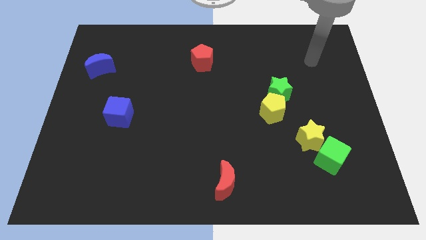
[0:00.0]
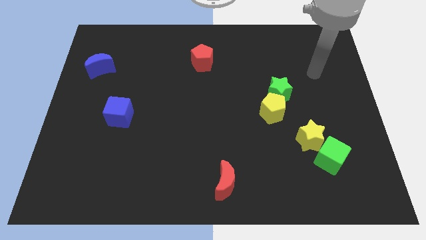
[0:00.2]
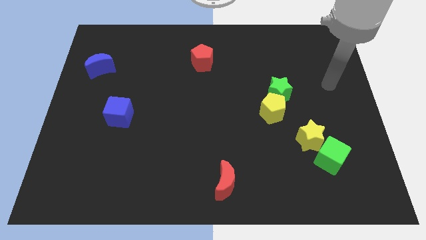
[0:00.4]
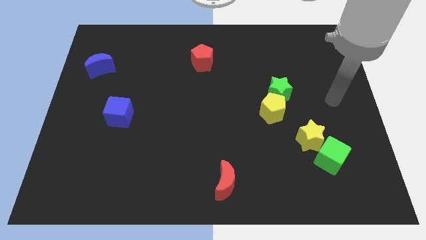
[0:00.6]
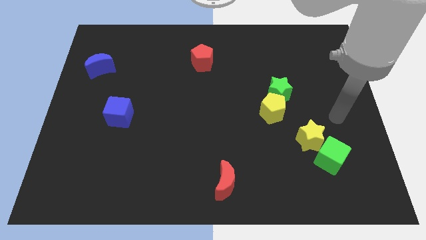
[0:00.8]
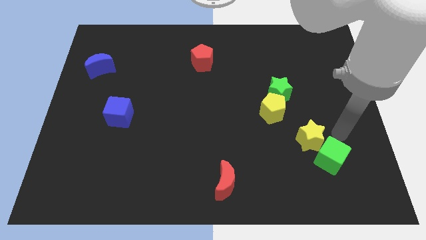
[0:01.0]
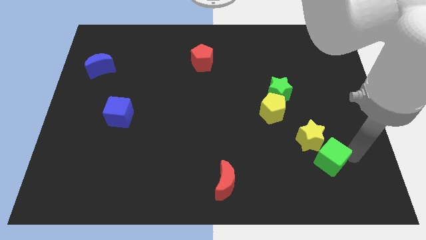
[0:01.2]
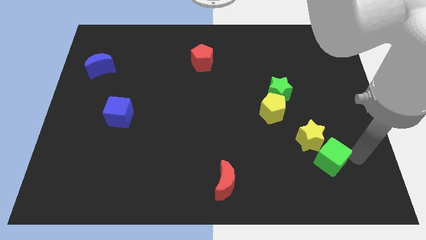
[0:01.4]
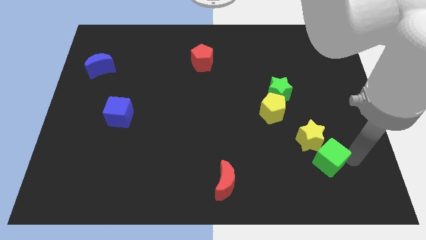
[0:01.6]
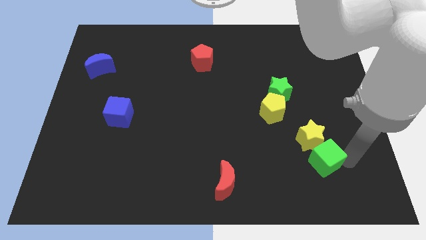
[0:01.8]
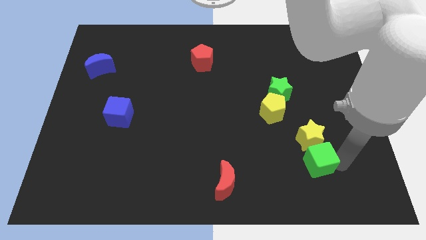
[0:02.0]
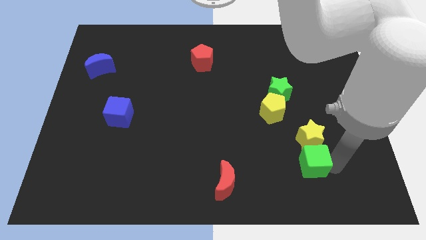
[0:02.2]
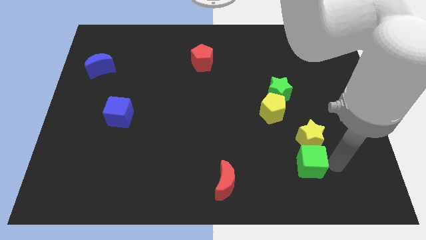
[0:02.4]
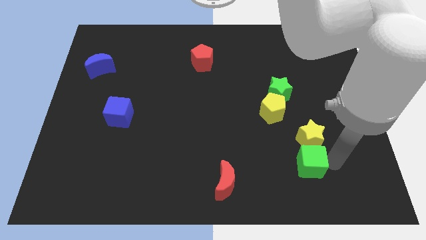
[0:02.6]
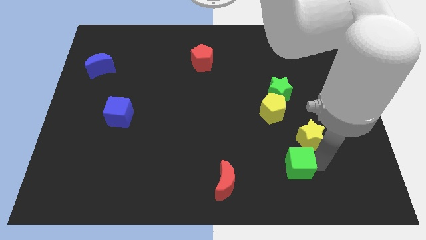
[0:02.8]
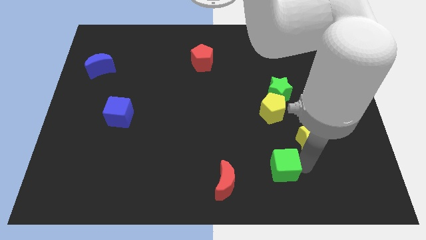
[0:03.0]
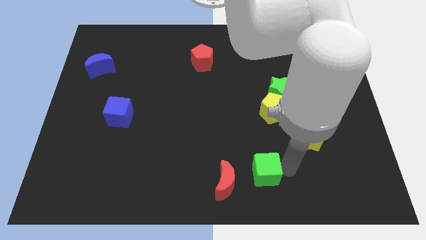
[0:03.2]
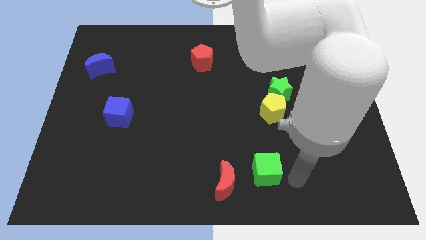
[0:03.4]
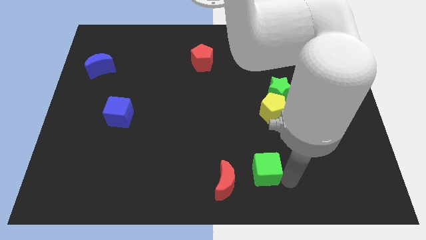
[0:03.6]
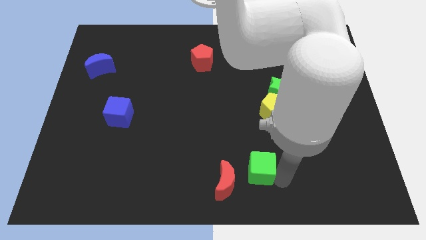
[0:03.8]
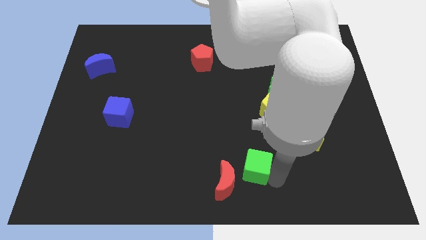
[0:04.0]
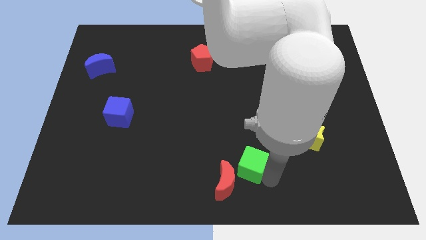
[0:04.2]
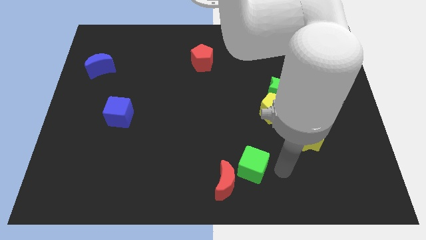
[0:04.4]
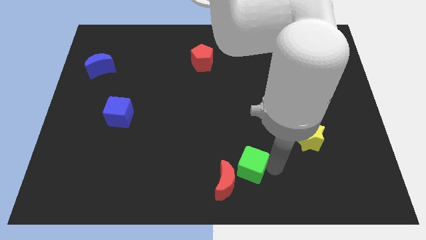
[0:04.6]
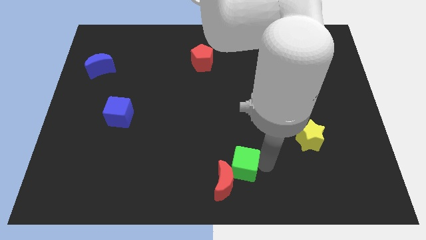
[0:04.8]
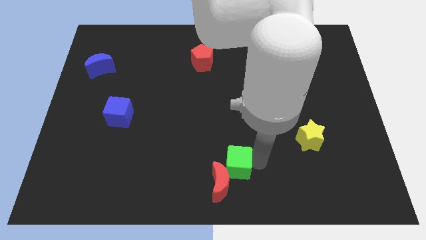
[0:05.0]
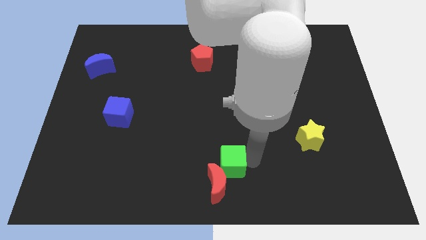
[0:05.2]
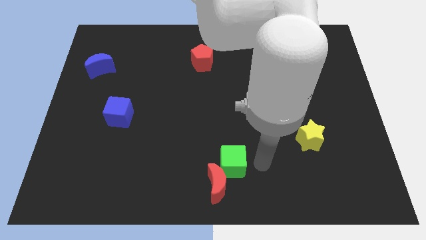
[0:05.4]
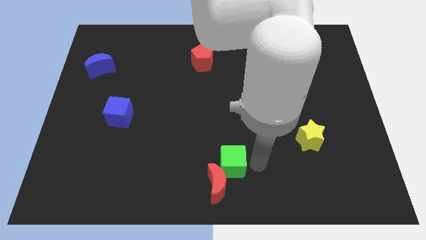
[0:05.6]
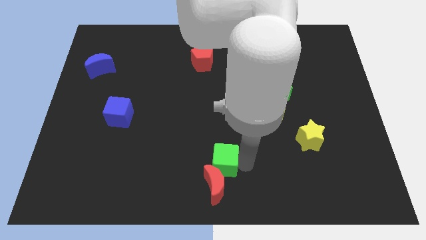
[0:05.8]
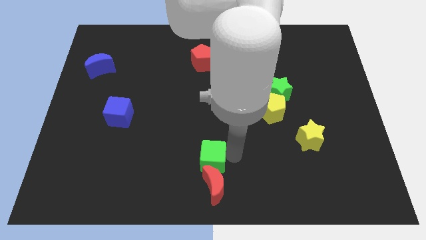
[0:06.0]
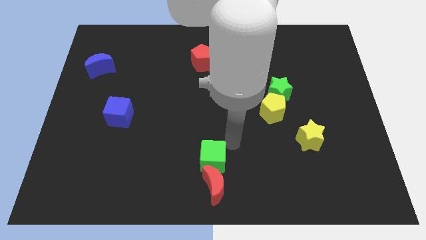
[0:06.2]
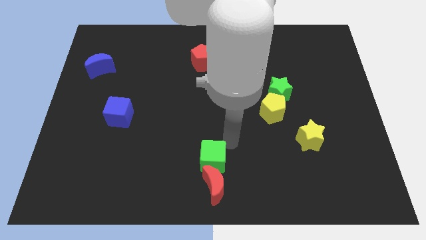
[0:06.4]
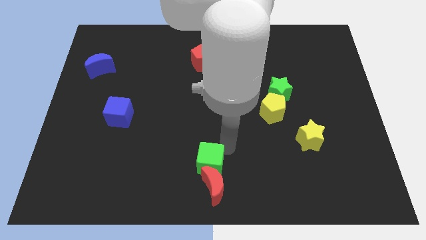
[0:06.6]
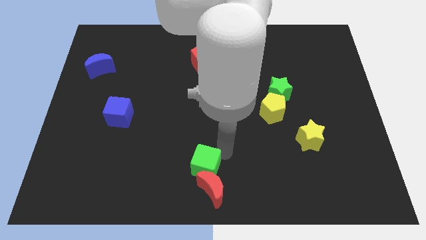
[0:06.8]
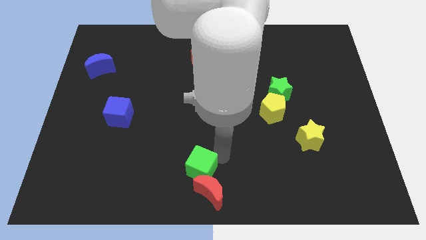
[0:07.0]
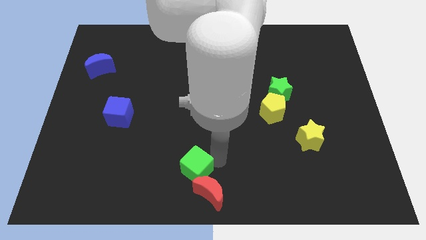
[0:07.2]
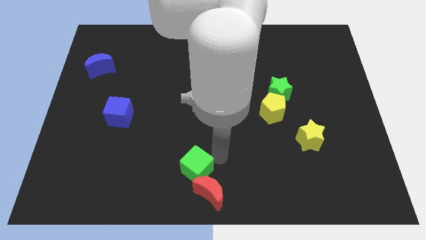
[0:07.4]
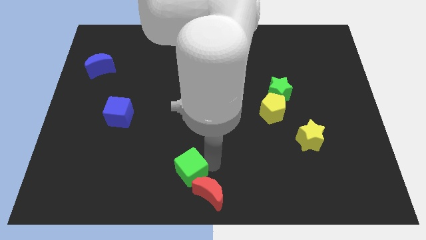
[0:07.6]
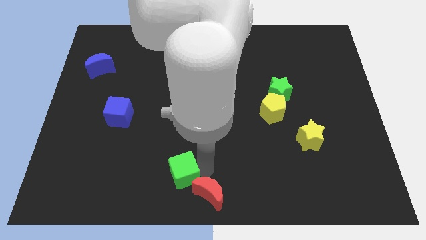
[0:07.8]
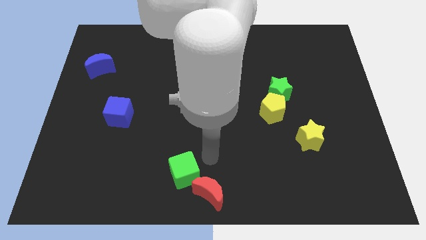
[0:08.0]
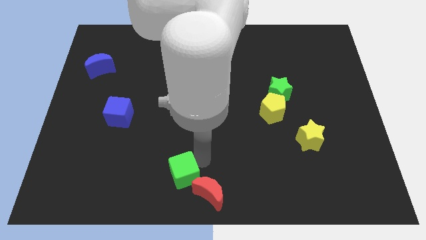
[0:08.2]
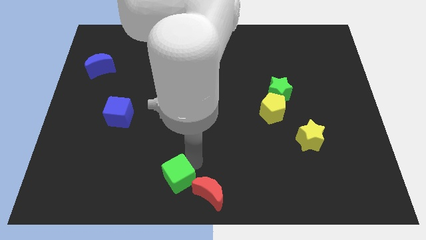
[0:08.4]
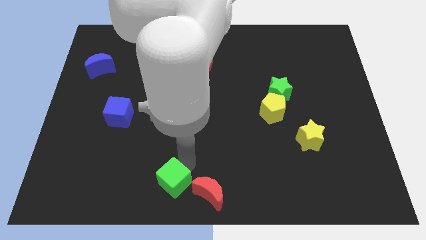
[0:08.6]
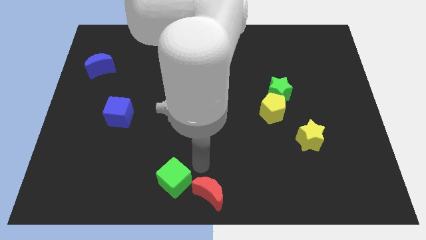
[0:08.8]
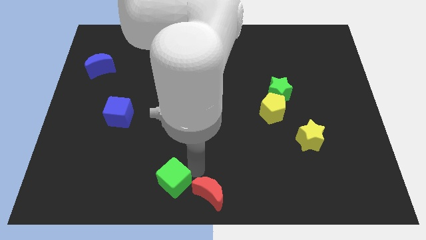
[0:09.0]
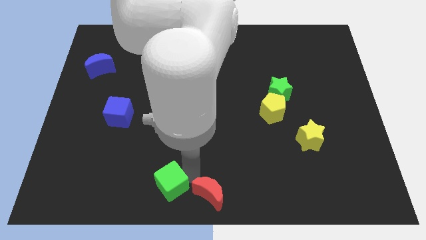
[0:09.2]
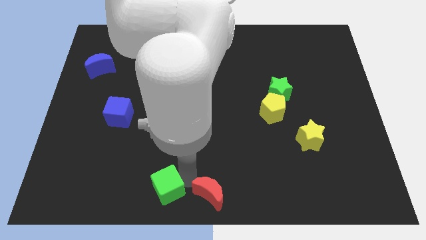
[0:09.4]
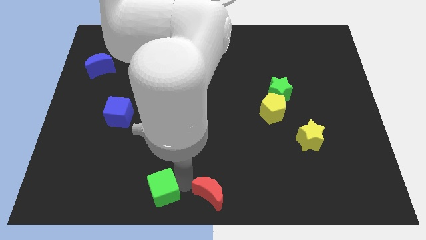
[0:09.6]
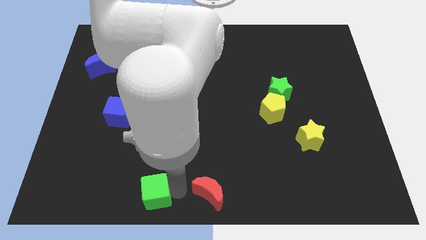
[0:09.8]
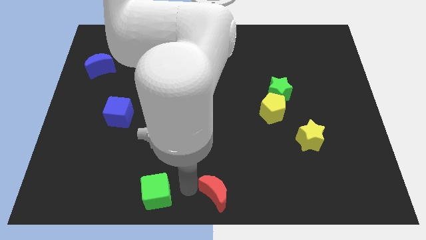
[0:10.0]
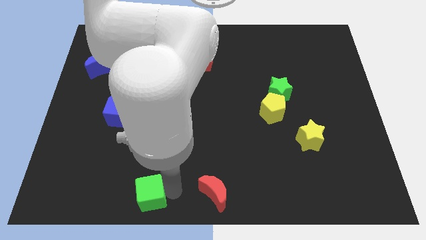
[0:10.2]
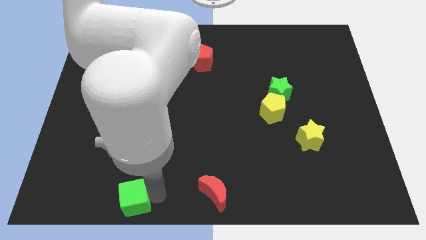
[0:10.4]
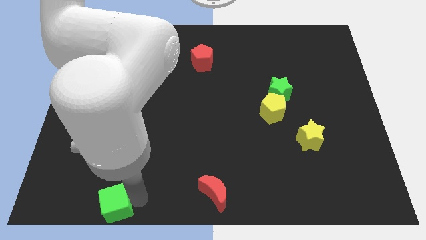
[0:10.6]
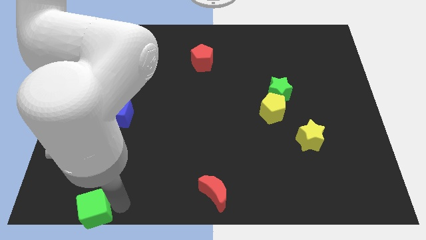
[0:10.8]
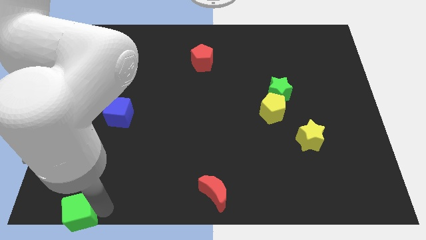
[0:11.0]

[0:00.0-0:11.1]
push the green cube to the bottom left corner
